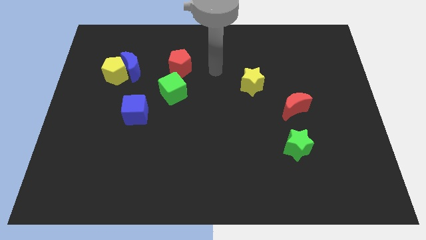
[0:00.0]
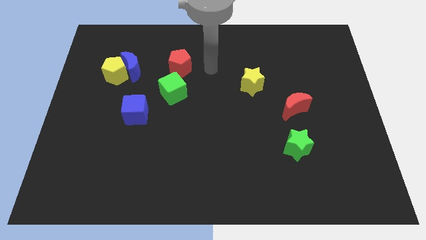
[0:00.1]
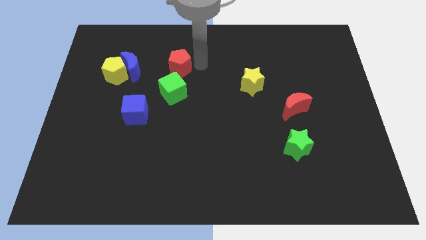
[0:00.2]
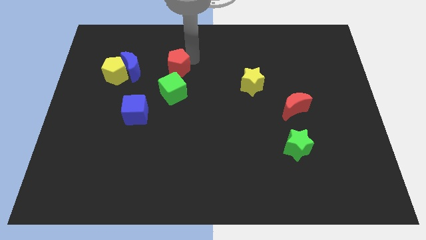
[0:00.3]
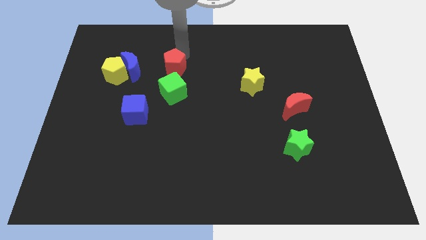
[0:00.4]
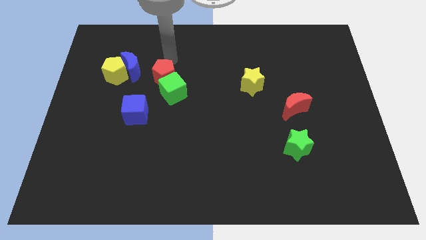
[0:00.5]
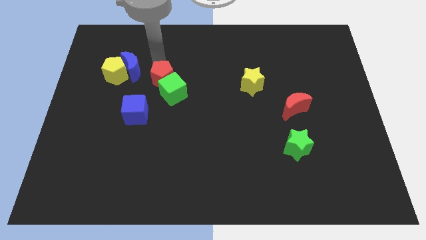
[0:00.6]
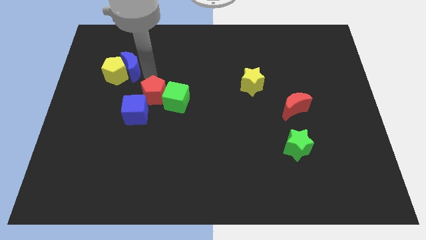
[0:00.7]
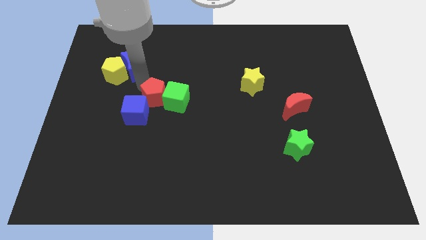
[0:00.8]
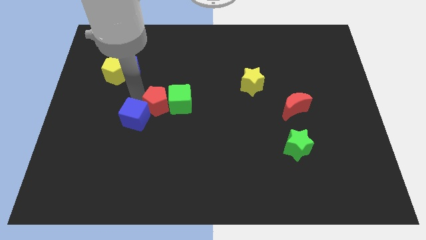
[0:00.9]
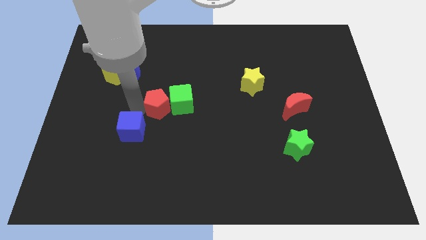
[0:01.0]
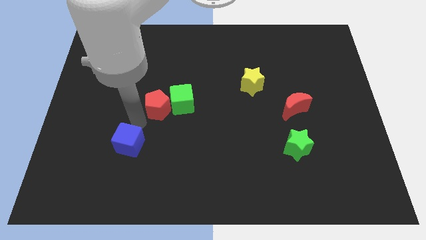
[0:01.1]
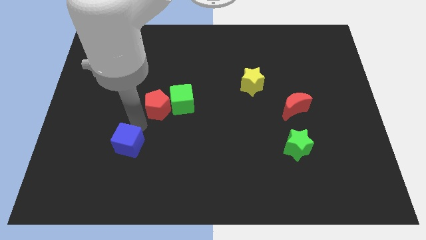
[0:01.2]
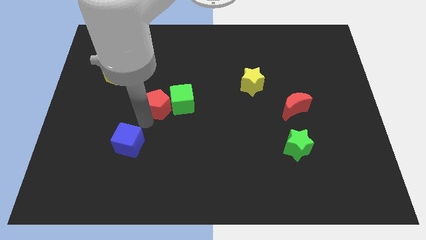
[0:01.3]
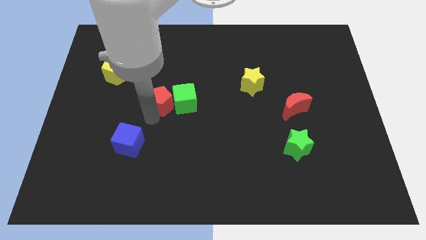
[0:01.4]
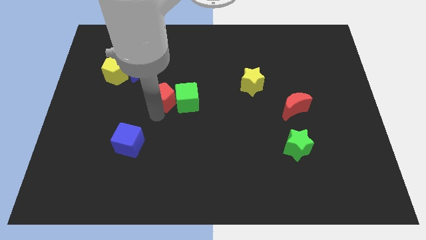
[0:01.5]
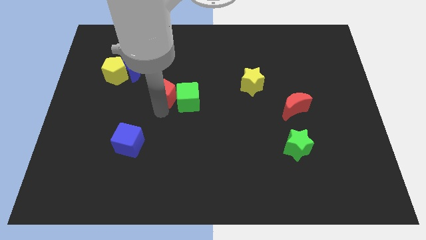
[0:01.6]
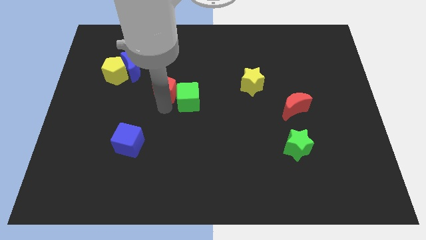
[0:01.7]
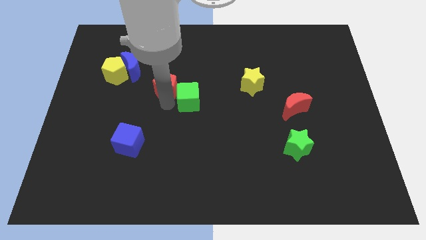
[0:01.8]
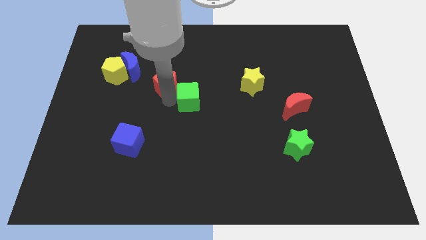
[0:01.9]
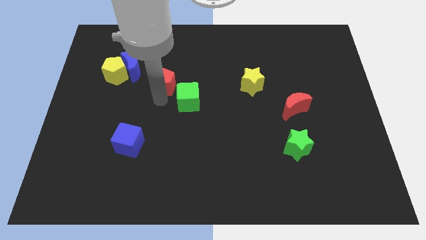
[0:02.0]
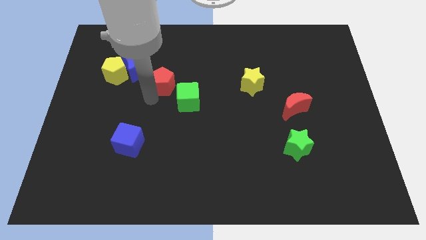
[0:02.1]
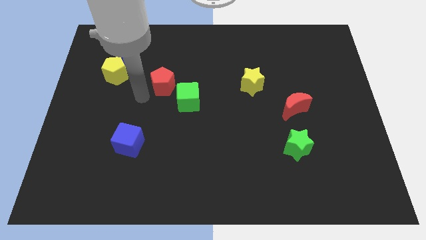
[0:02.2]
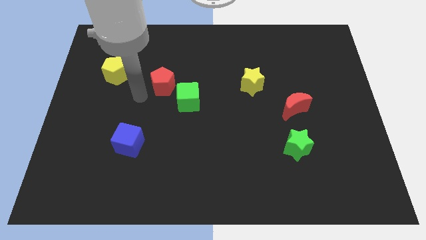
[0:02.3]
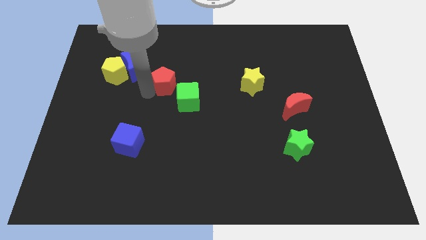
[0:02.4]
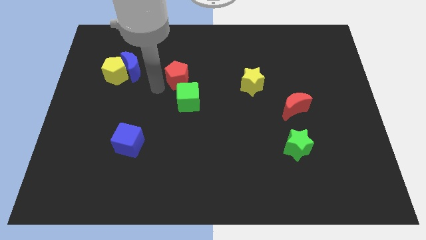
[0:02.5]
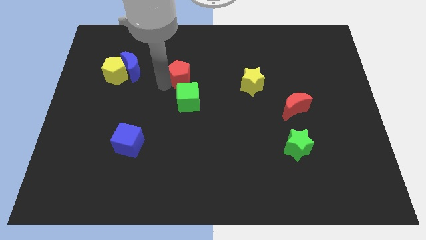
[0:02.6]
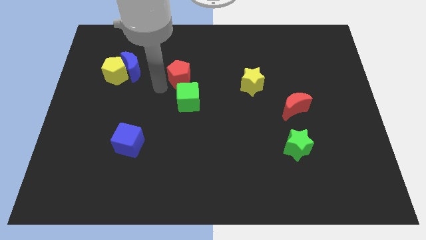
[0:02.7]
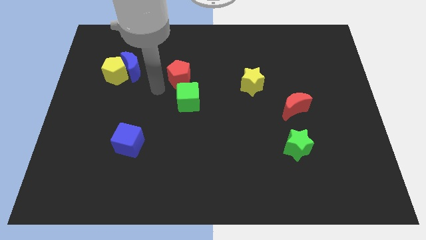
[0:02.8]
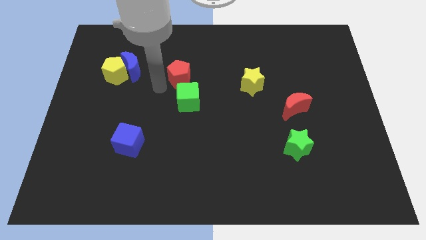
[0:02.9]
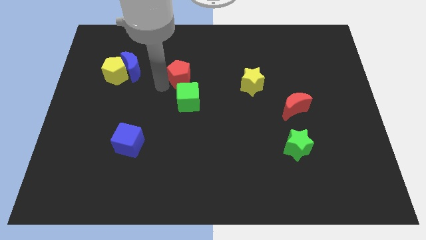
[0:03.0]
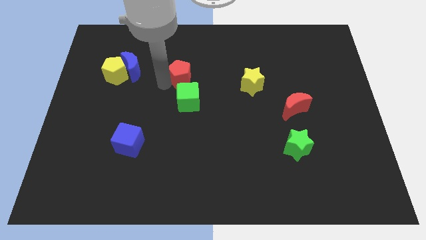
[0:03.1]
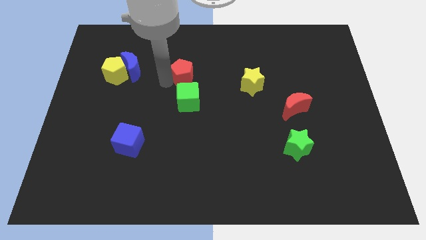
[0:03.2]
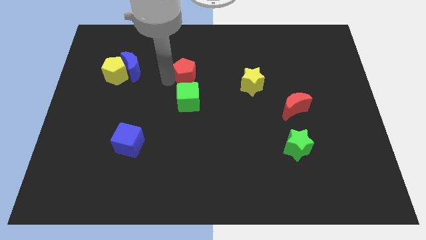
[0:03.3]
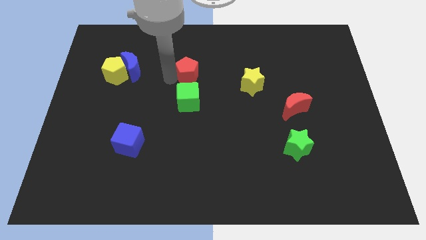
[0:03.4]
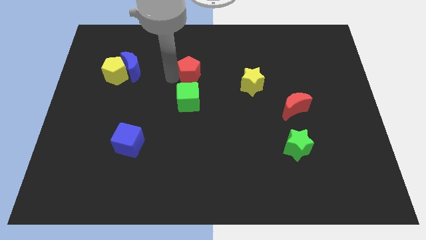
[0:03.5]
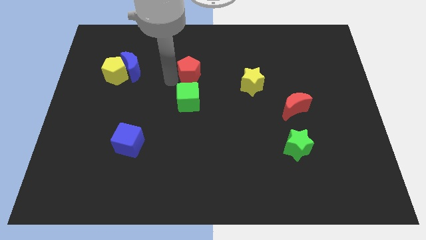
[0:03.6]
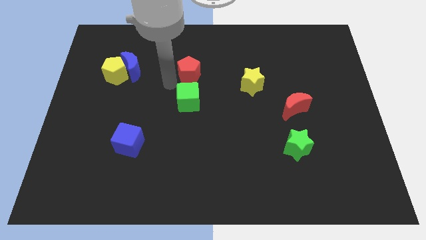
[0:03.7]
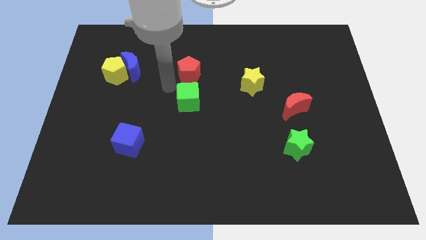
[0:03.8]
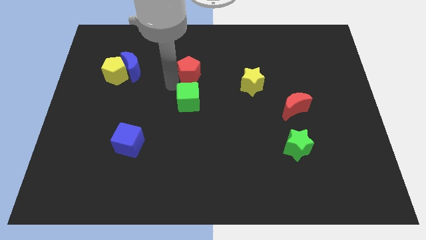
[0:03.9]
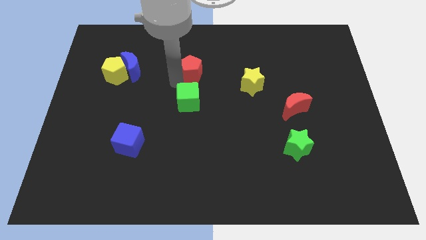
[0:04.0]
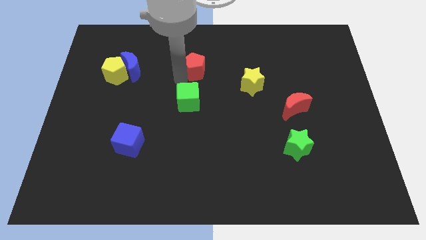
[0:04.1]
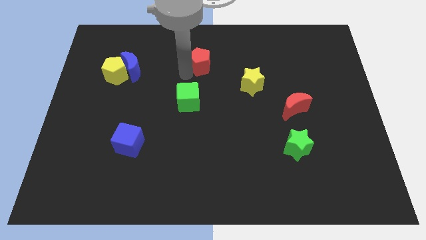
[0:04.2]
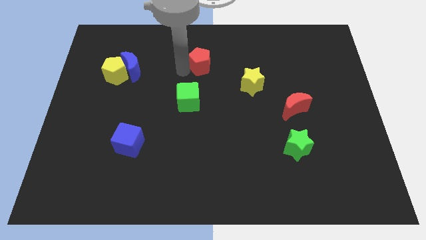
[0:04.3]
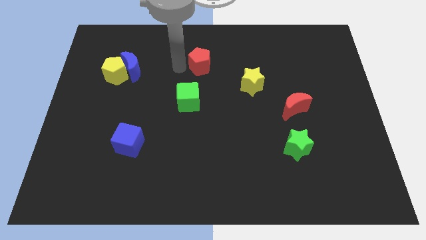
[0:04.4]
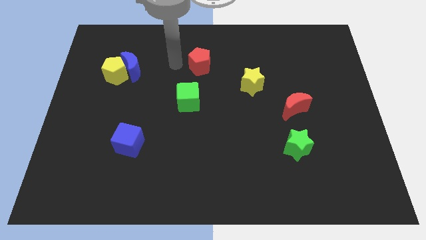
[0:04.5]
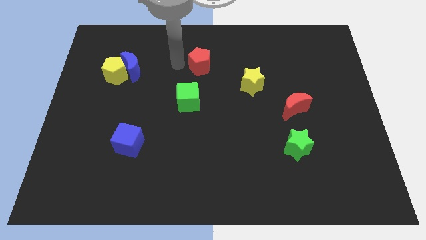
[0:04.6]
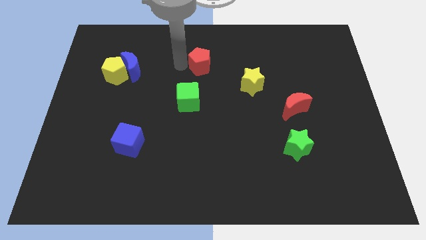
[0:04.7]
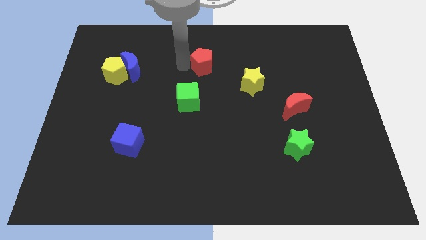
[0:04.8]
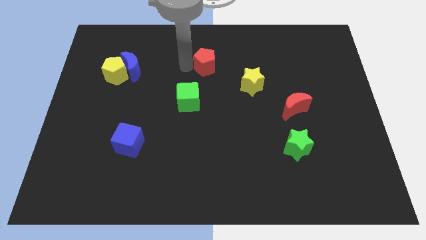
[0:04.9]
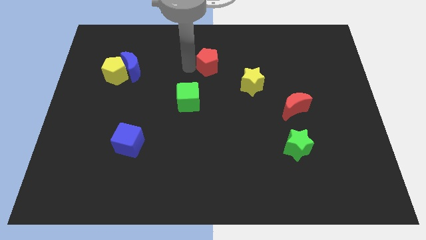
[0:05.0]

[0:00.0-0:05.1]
push the red pentagon a little bit to the right

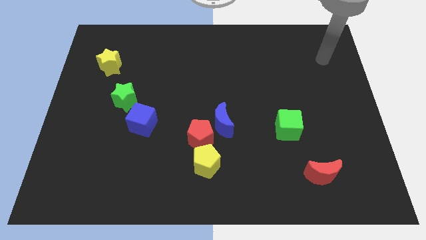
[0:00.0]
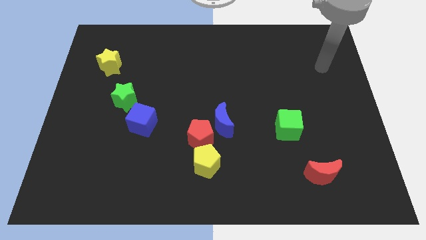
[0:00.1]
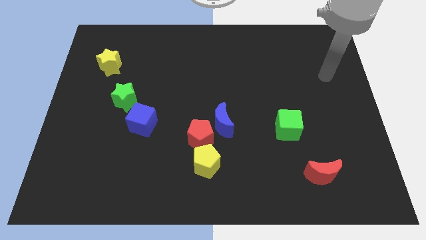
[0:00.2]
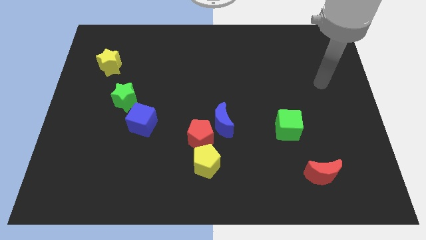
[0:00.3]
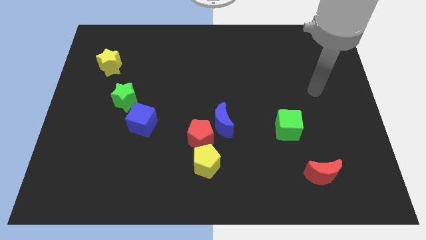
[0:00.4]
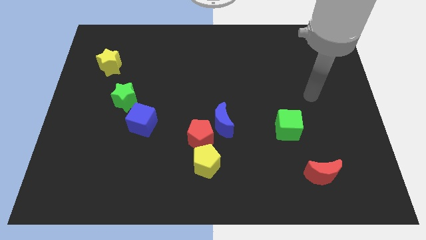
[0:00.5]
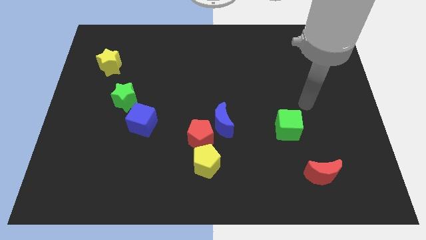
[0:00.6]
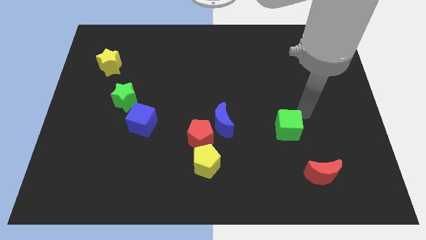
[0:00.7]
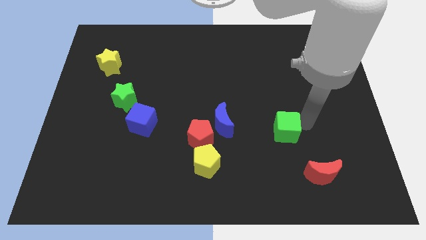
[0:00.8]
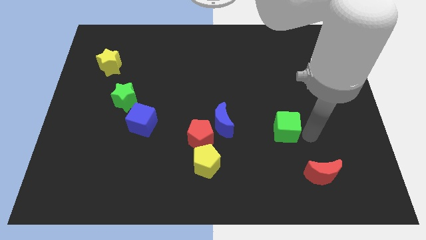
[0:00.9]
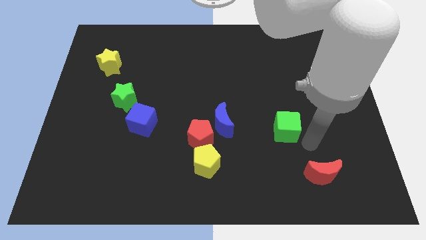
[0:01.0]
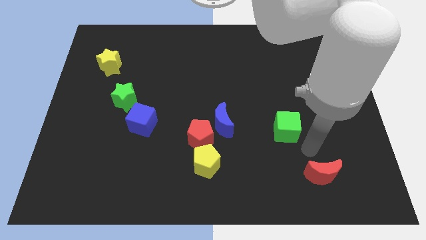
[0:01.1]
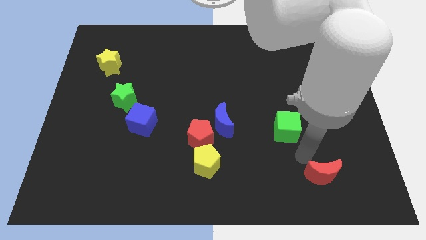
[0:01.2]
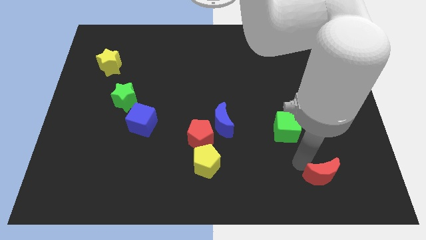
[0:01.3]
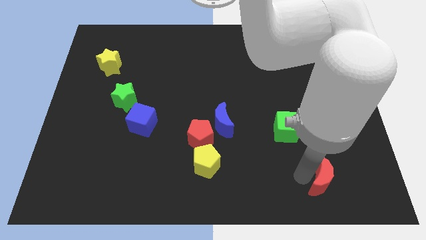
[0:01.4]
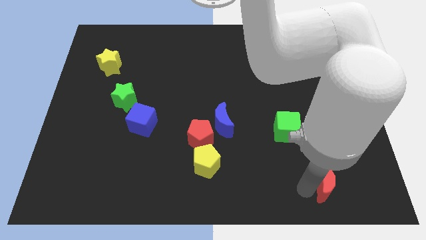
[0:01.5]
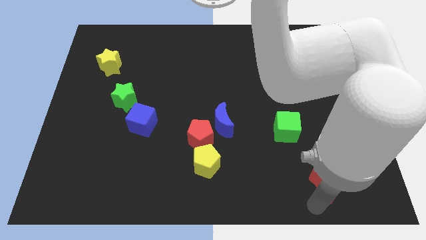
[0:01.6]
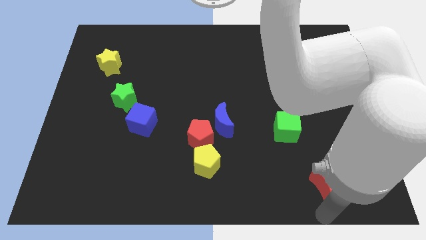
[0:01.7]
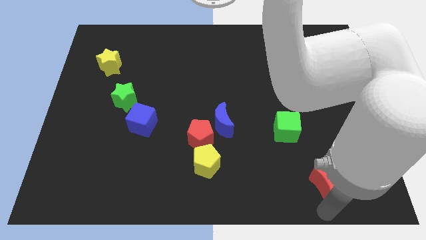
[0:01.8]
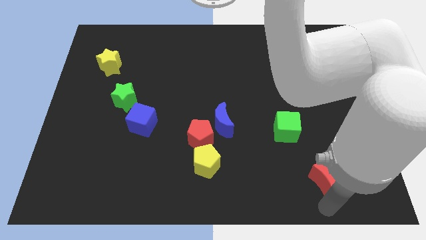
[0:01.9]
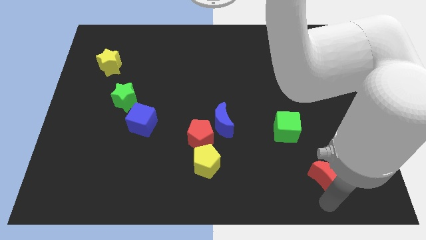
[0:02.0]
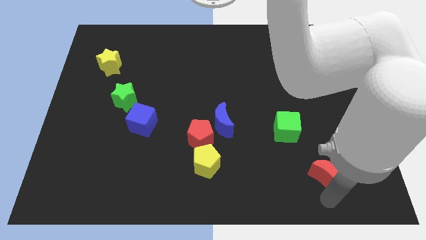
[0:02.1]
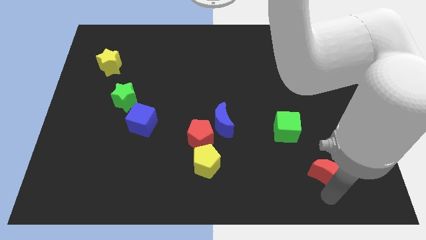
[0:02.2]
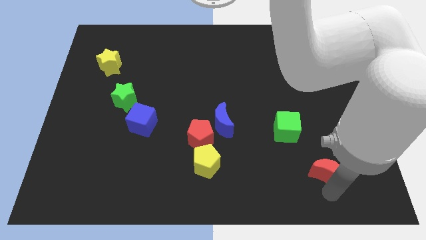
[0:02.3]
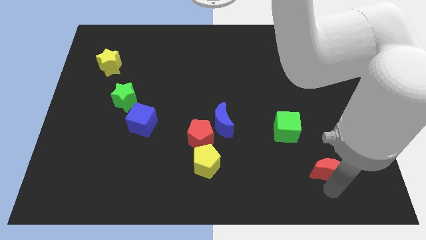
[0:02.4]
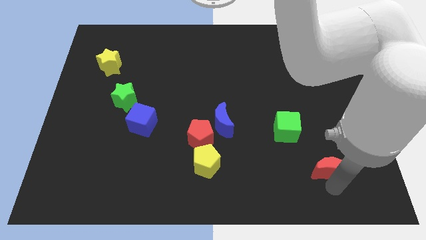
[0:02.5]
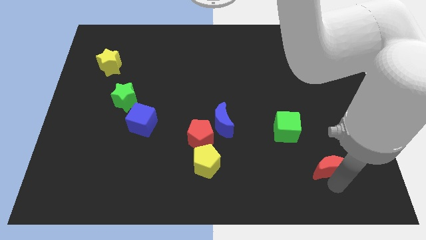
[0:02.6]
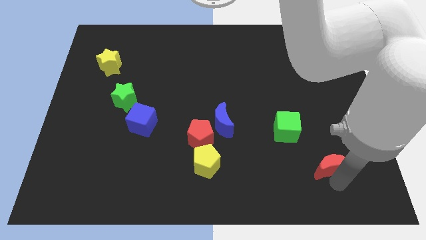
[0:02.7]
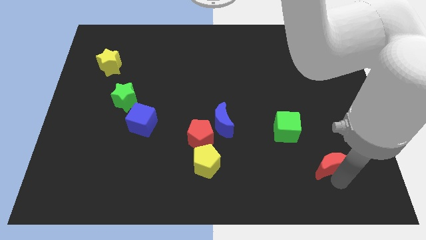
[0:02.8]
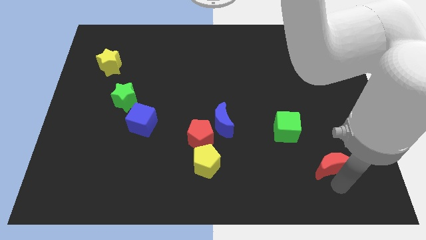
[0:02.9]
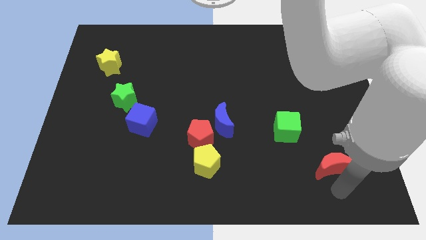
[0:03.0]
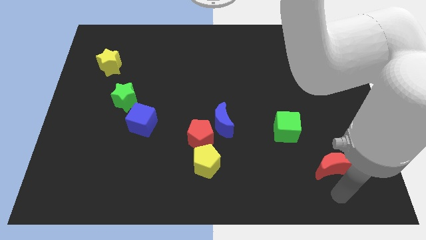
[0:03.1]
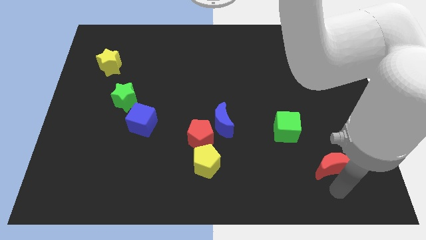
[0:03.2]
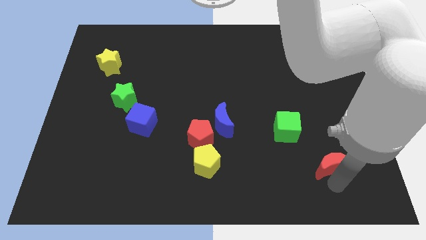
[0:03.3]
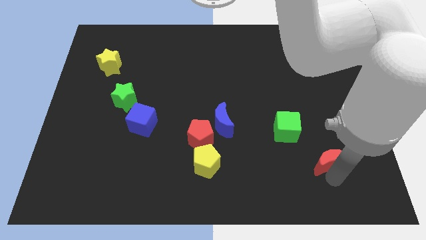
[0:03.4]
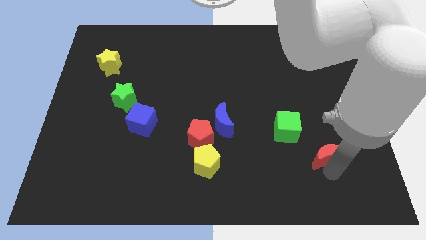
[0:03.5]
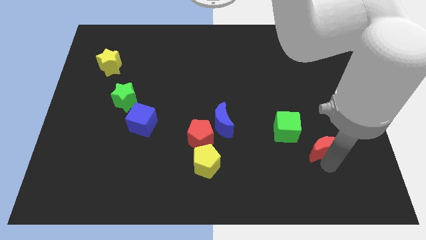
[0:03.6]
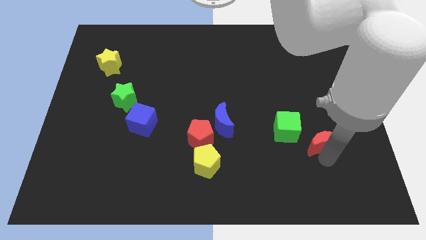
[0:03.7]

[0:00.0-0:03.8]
push the red moon a little bit up
